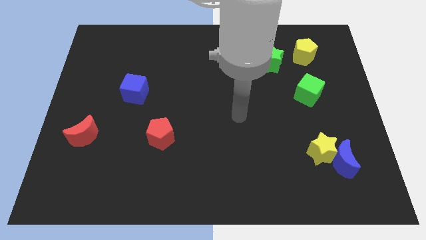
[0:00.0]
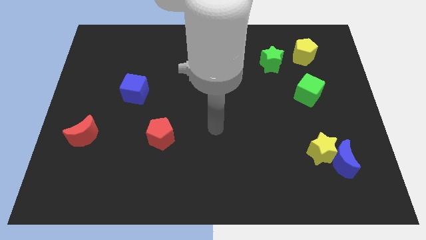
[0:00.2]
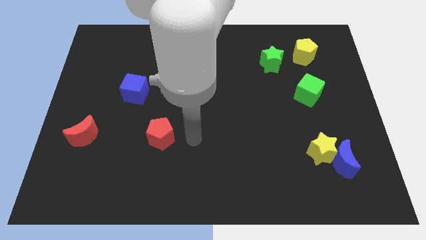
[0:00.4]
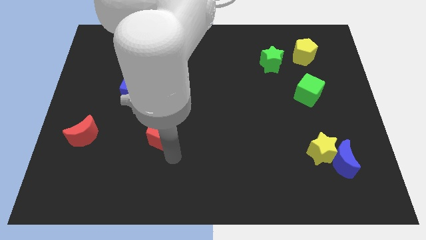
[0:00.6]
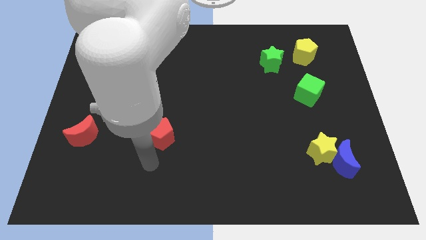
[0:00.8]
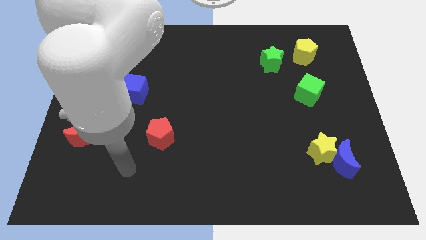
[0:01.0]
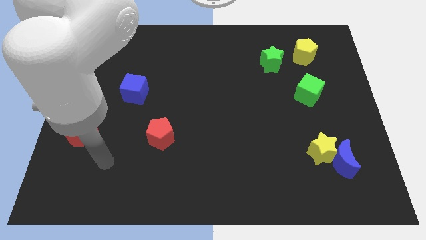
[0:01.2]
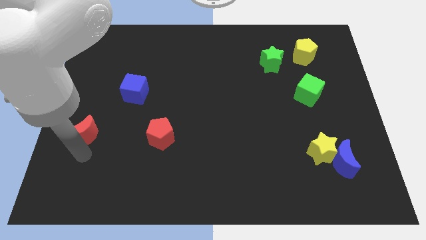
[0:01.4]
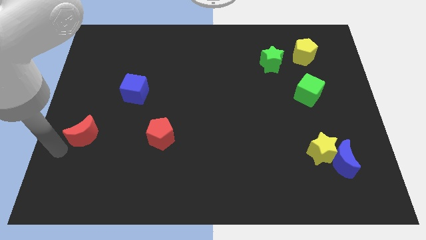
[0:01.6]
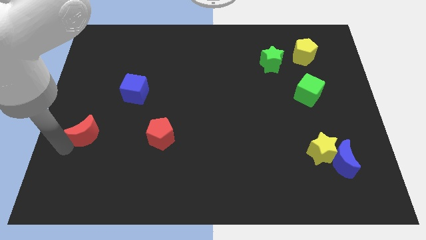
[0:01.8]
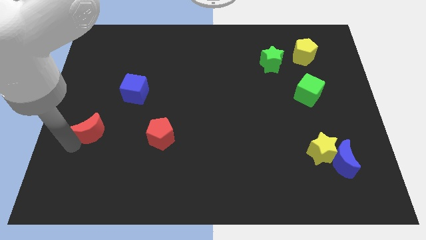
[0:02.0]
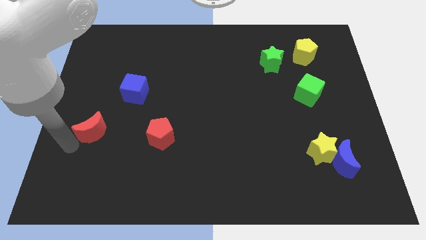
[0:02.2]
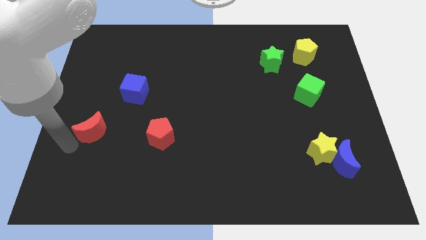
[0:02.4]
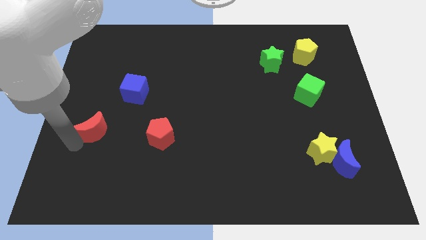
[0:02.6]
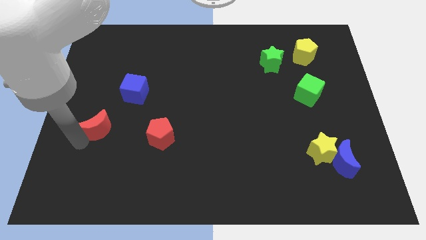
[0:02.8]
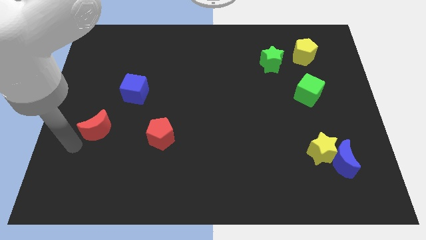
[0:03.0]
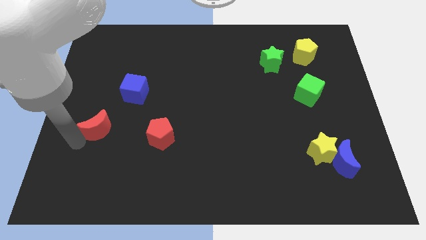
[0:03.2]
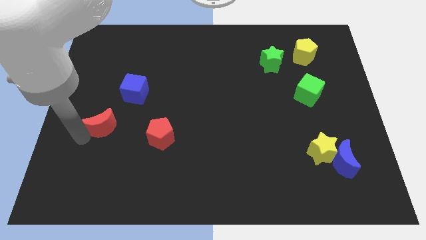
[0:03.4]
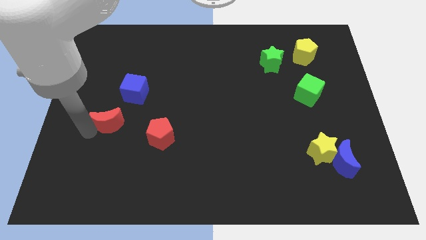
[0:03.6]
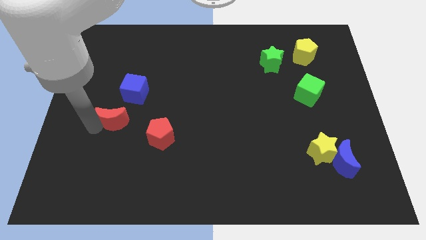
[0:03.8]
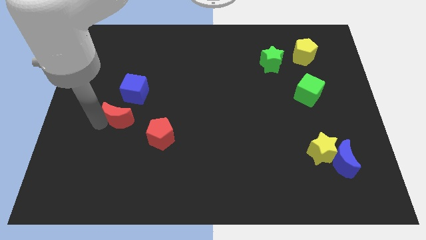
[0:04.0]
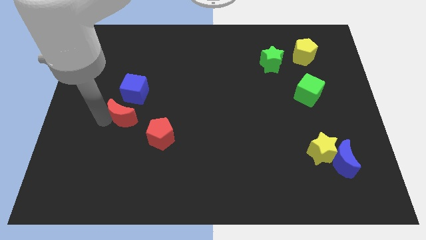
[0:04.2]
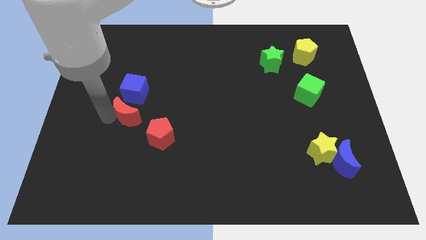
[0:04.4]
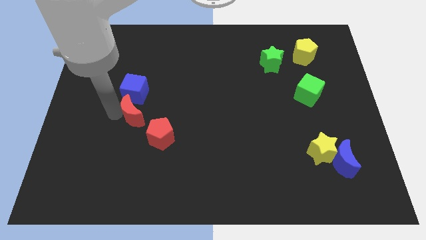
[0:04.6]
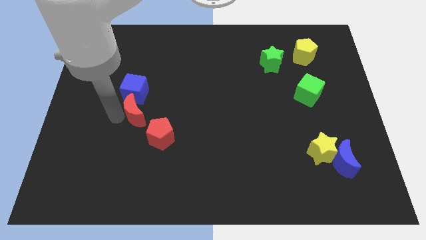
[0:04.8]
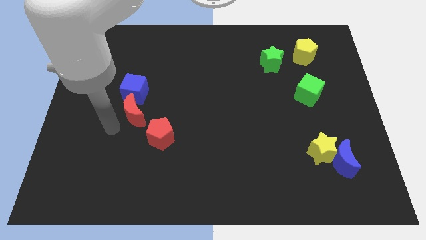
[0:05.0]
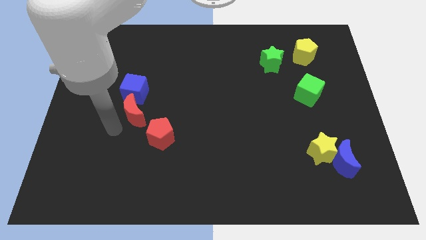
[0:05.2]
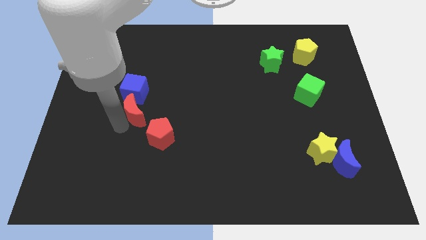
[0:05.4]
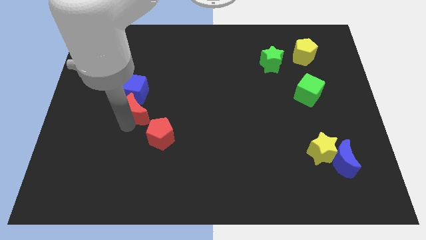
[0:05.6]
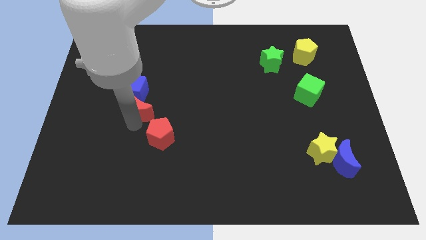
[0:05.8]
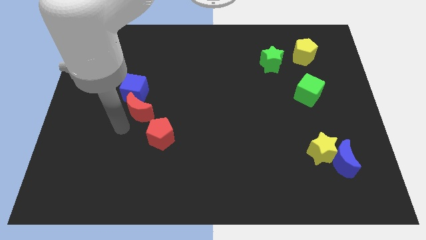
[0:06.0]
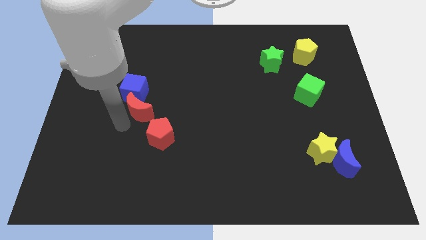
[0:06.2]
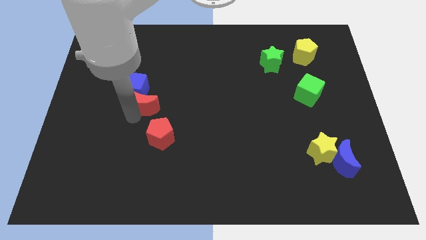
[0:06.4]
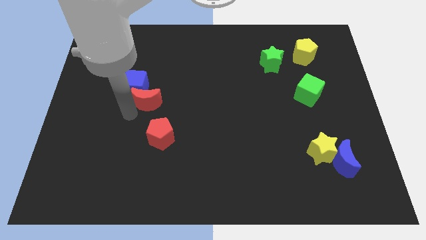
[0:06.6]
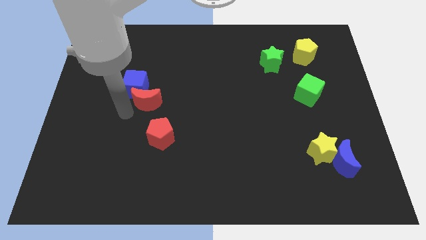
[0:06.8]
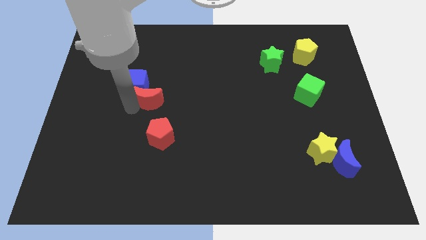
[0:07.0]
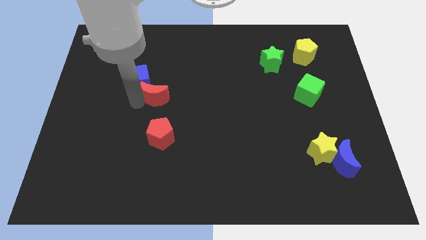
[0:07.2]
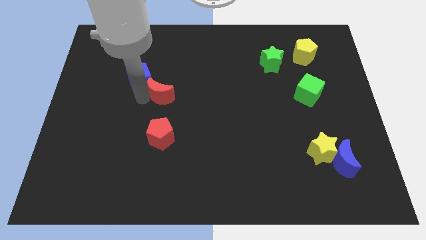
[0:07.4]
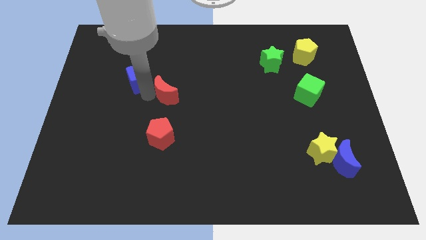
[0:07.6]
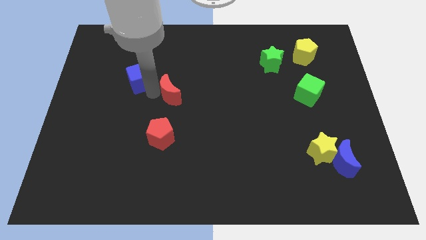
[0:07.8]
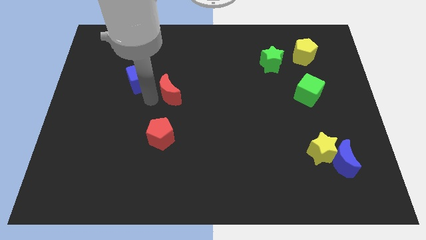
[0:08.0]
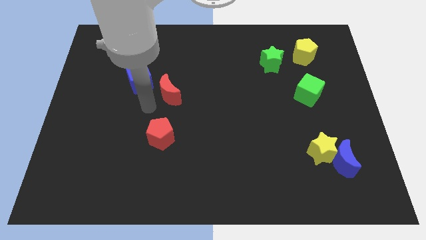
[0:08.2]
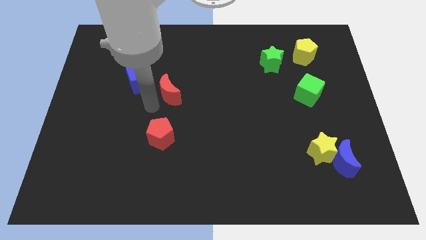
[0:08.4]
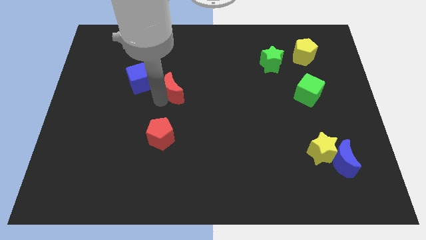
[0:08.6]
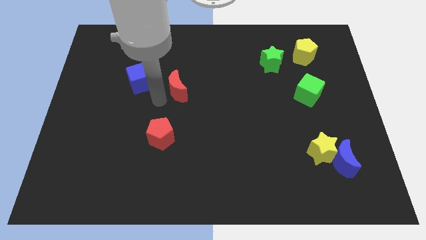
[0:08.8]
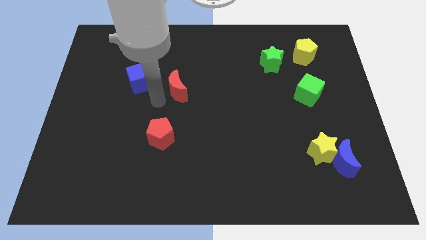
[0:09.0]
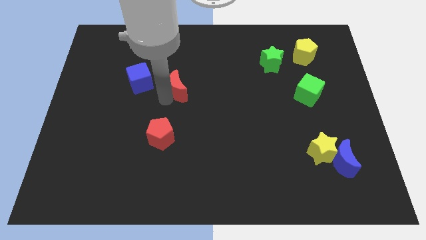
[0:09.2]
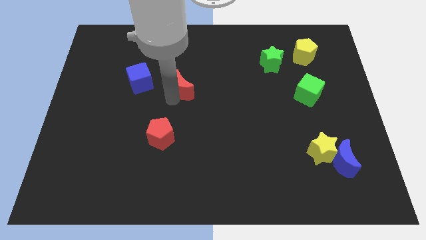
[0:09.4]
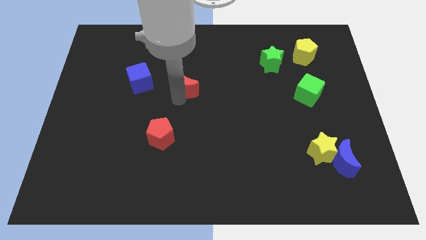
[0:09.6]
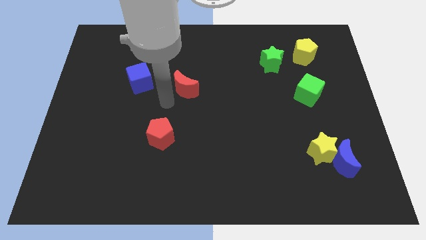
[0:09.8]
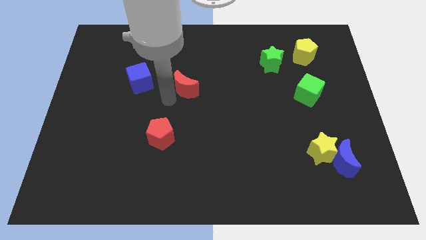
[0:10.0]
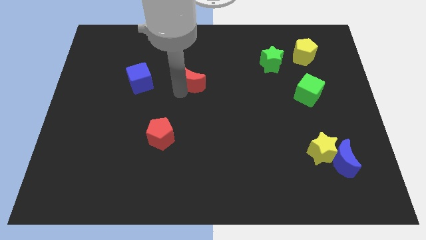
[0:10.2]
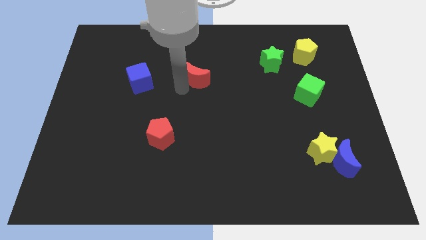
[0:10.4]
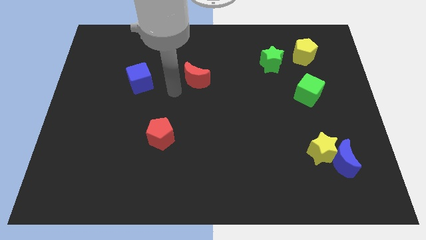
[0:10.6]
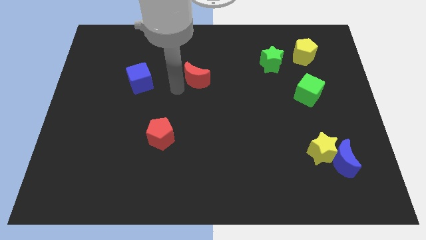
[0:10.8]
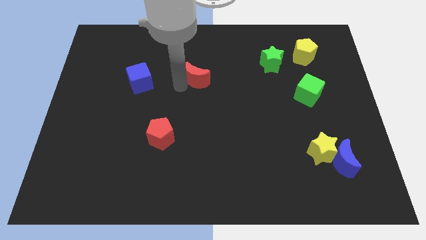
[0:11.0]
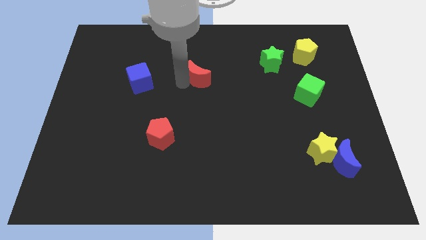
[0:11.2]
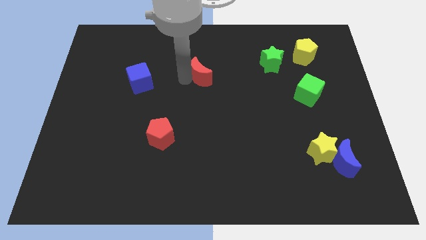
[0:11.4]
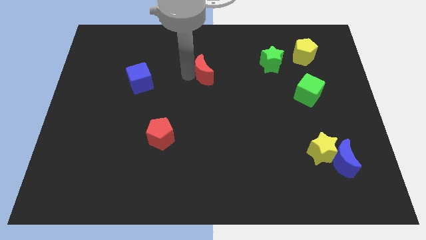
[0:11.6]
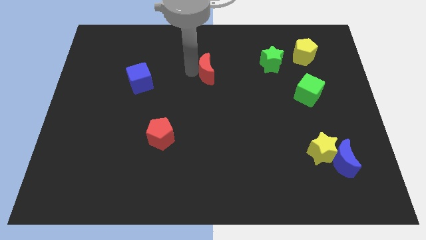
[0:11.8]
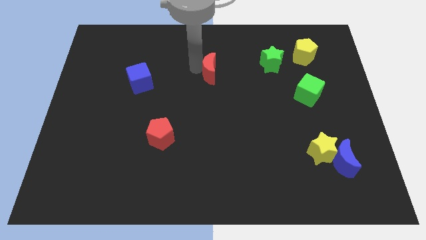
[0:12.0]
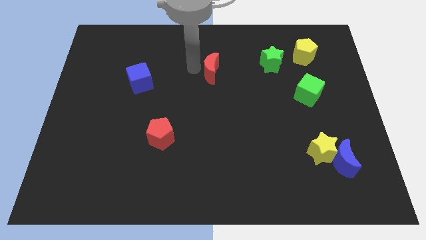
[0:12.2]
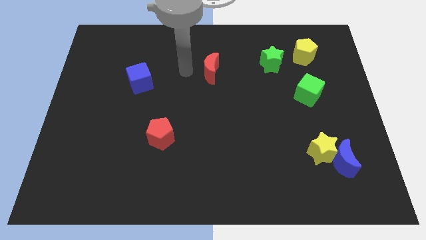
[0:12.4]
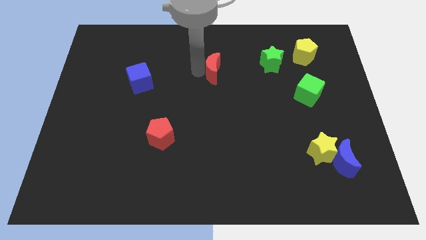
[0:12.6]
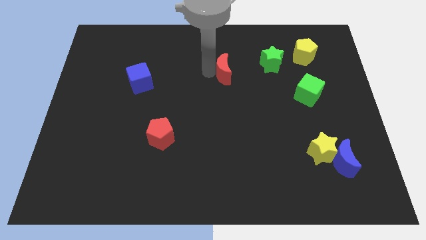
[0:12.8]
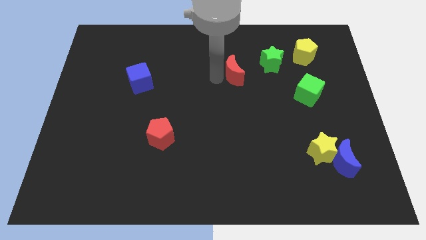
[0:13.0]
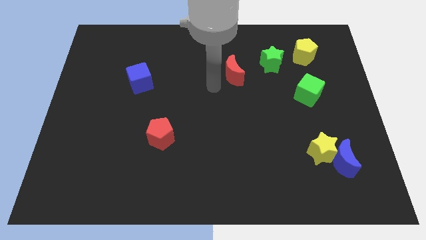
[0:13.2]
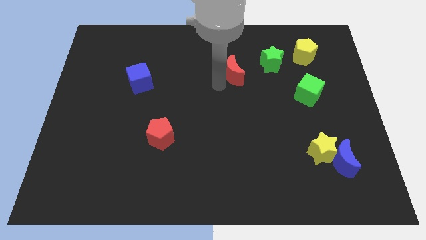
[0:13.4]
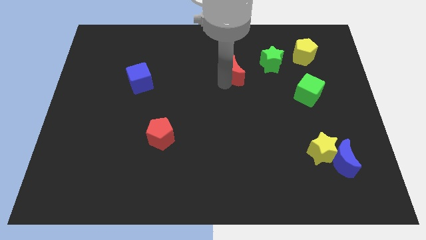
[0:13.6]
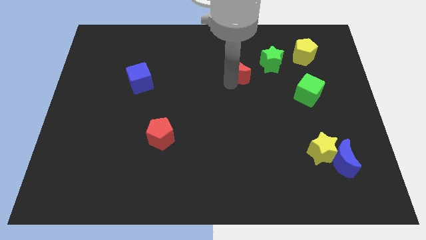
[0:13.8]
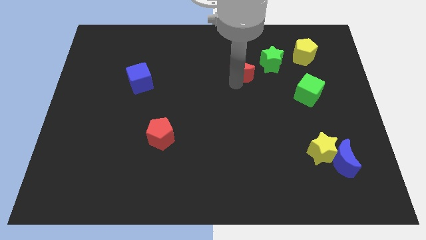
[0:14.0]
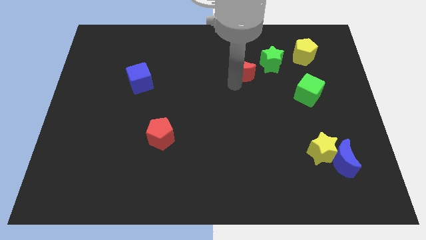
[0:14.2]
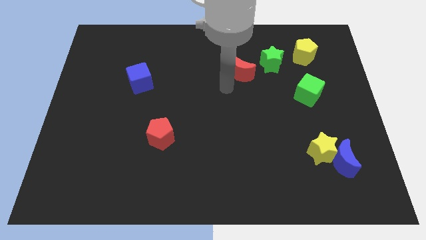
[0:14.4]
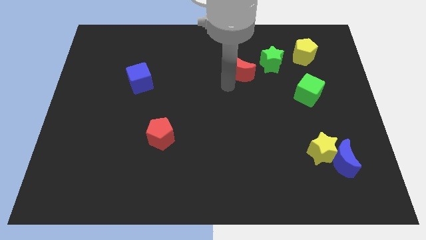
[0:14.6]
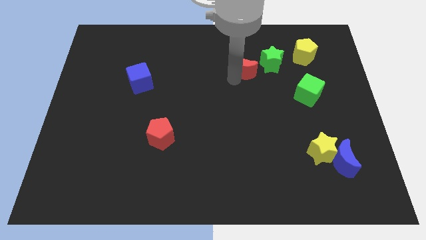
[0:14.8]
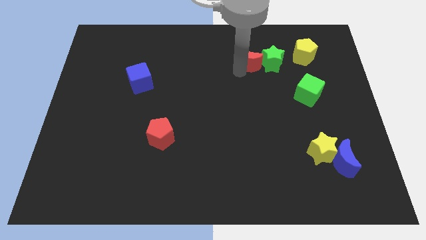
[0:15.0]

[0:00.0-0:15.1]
push the red moon towards the green star

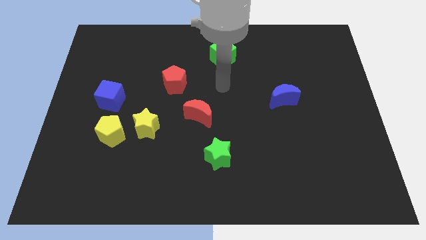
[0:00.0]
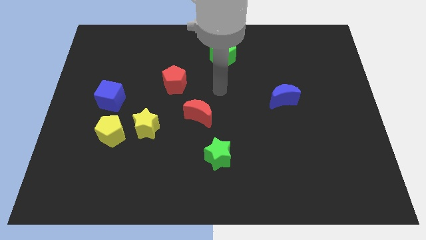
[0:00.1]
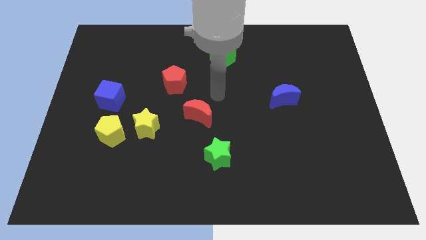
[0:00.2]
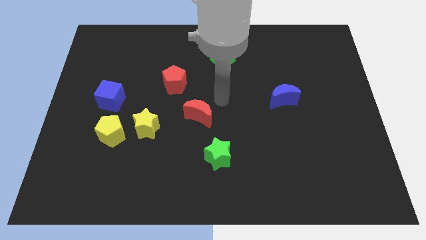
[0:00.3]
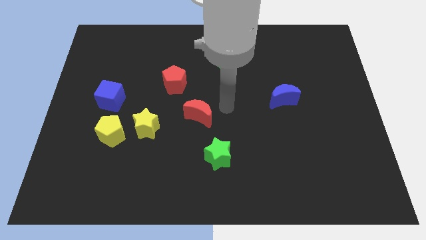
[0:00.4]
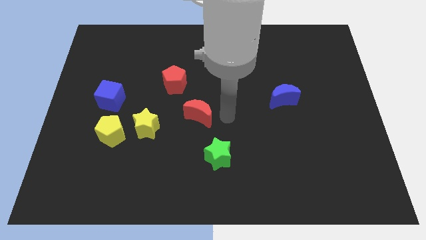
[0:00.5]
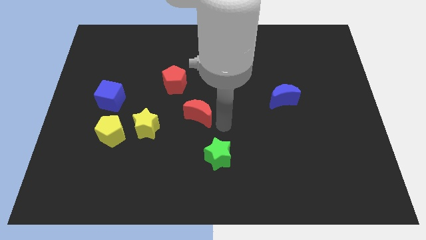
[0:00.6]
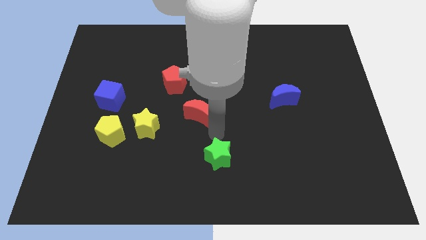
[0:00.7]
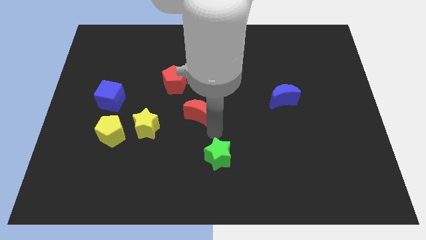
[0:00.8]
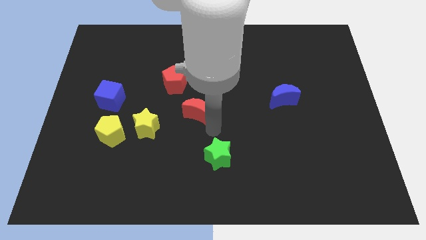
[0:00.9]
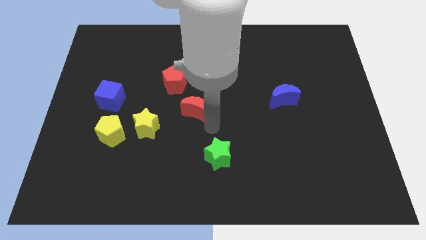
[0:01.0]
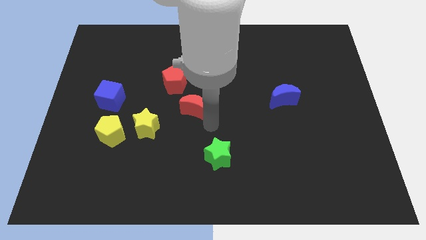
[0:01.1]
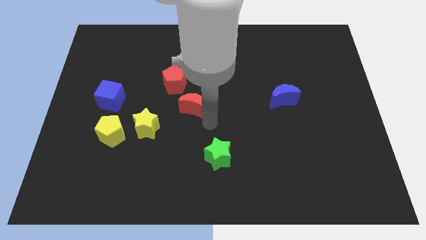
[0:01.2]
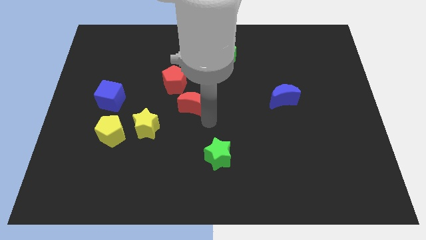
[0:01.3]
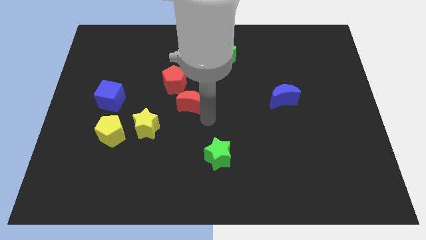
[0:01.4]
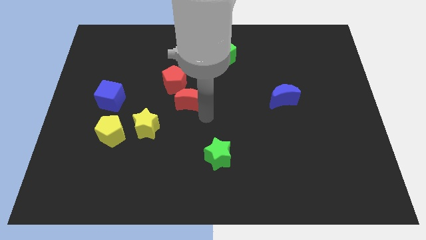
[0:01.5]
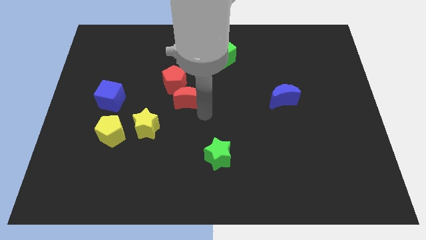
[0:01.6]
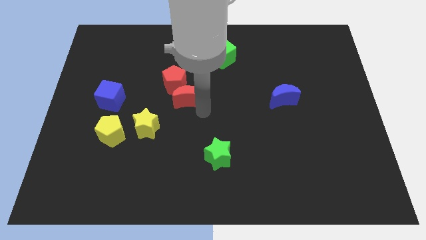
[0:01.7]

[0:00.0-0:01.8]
move the red moon close to the red pentagon
